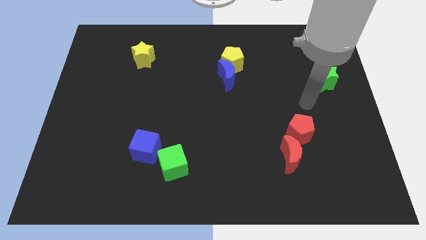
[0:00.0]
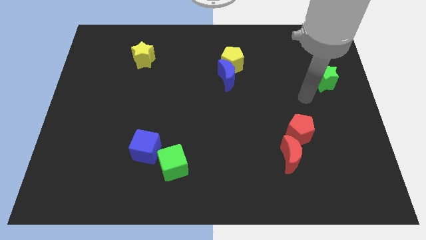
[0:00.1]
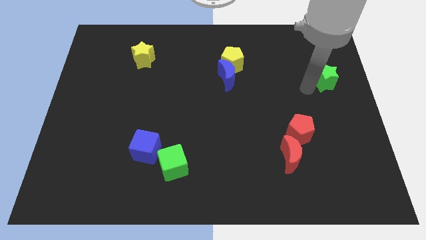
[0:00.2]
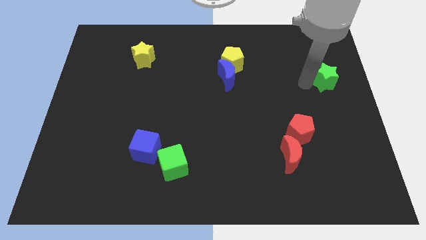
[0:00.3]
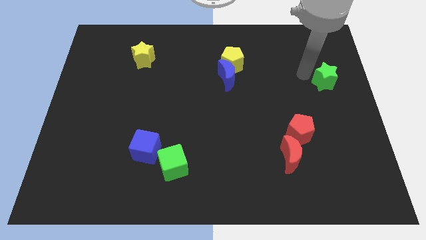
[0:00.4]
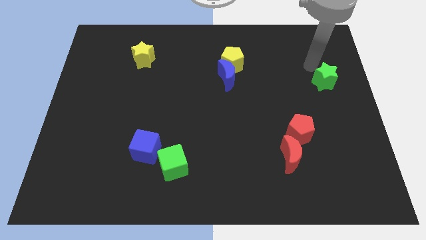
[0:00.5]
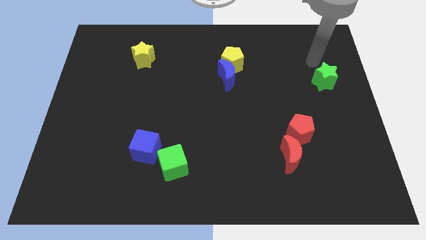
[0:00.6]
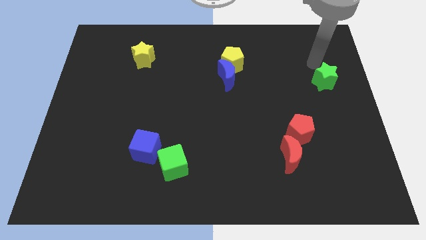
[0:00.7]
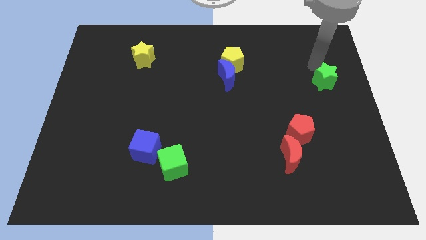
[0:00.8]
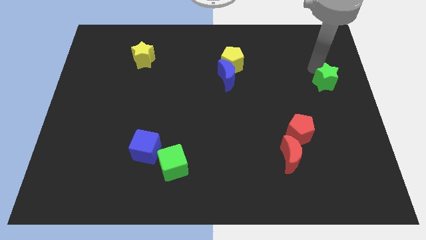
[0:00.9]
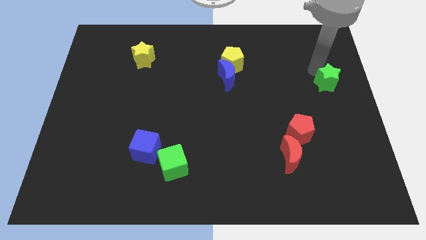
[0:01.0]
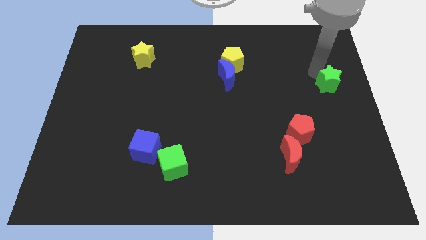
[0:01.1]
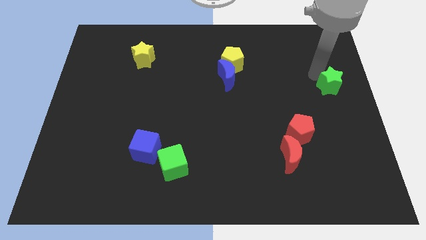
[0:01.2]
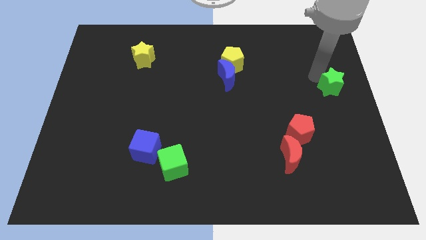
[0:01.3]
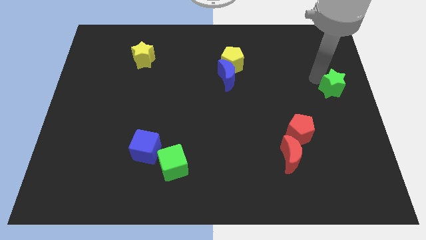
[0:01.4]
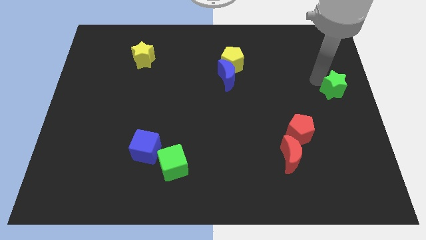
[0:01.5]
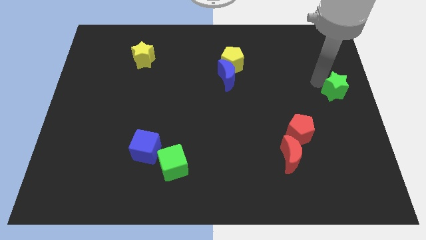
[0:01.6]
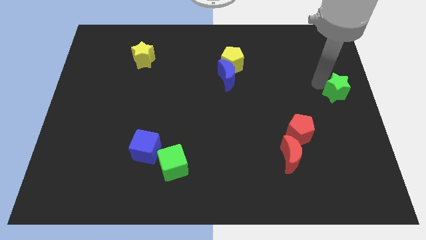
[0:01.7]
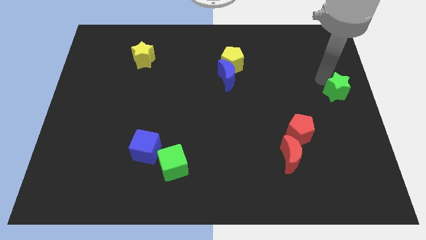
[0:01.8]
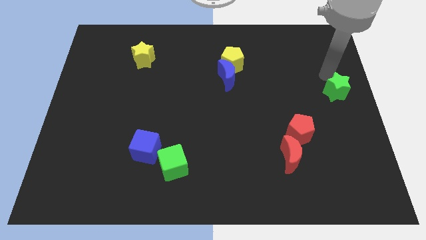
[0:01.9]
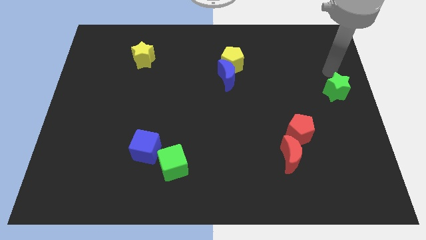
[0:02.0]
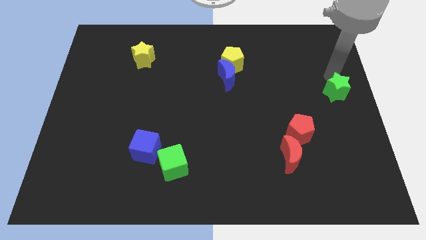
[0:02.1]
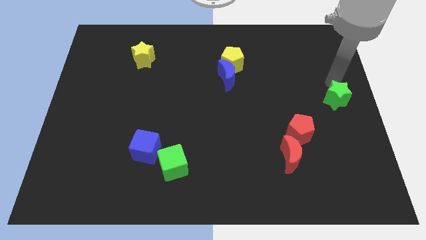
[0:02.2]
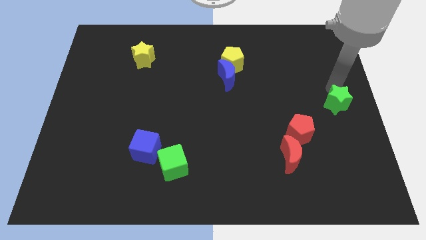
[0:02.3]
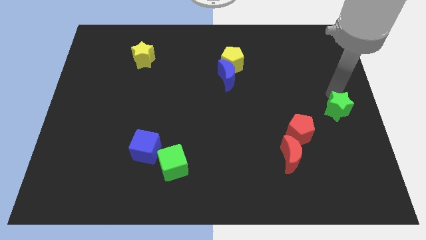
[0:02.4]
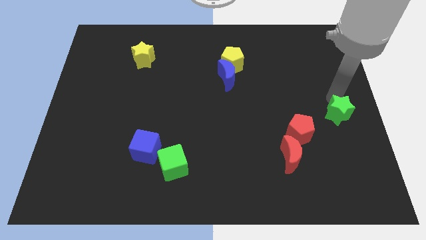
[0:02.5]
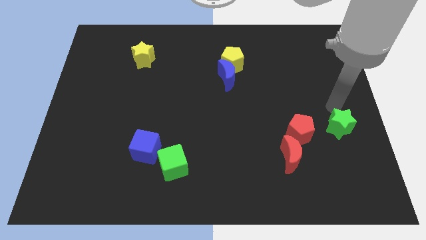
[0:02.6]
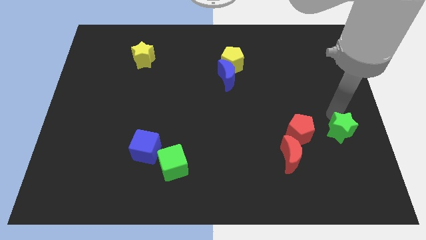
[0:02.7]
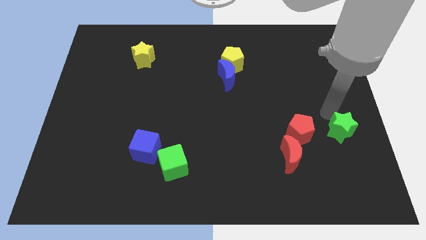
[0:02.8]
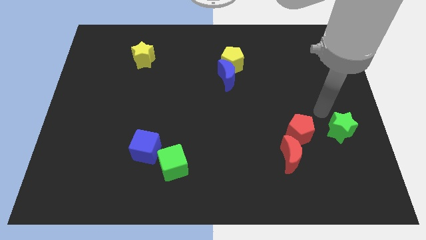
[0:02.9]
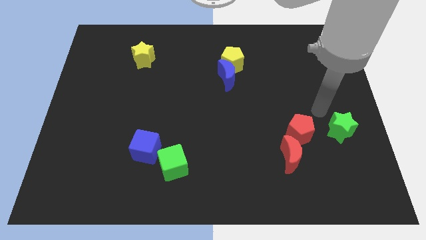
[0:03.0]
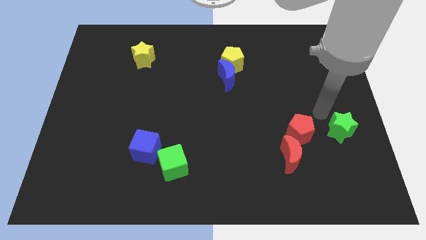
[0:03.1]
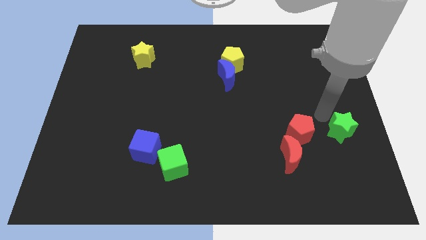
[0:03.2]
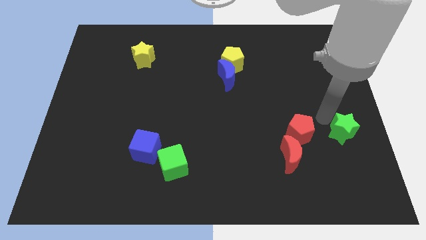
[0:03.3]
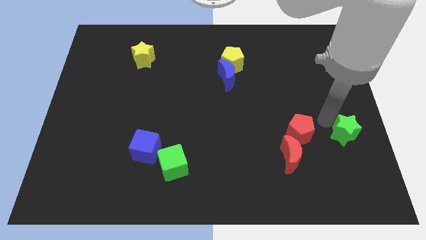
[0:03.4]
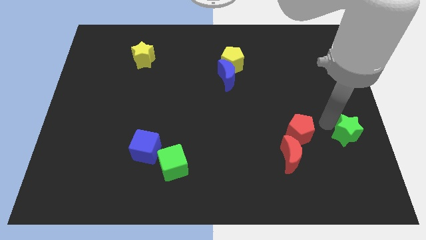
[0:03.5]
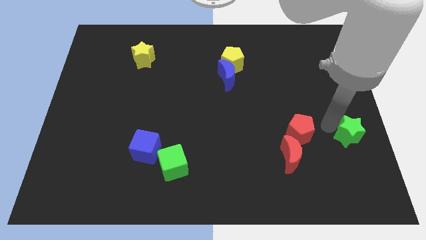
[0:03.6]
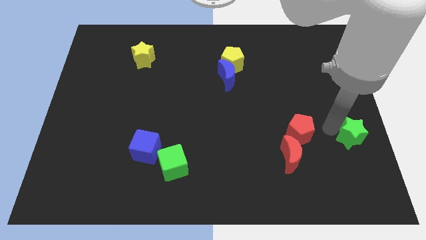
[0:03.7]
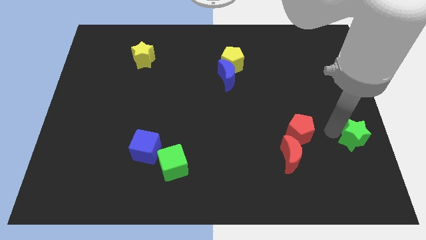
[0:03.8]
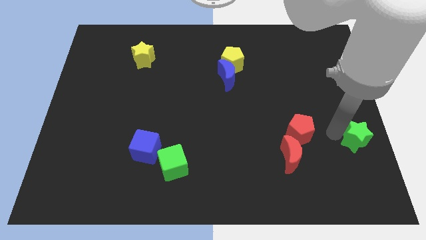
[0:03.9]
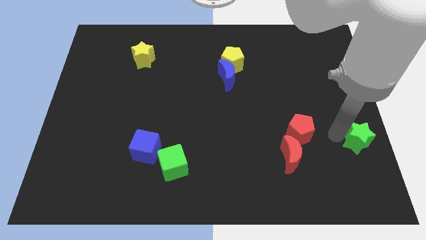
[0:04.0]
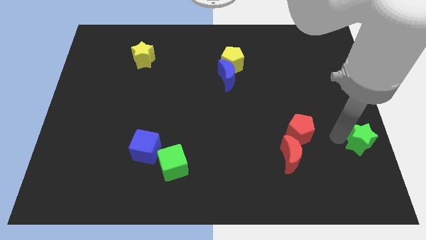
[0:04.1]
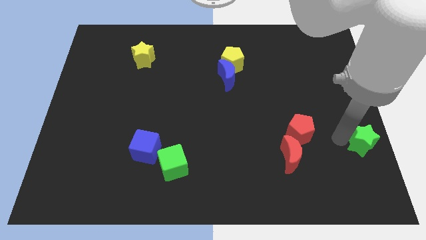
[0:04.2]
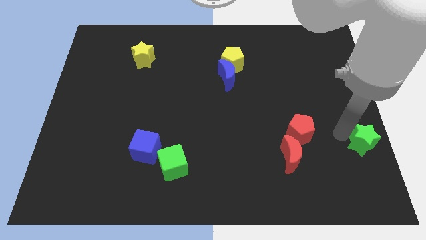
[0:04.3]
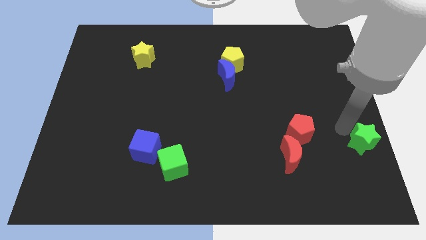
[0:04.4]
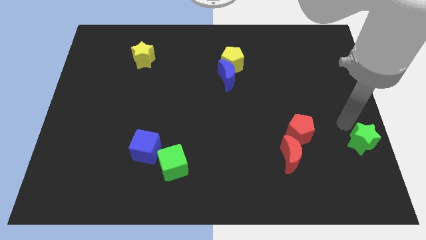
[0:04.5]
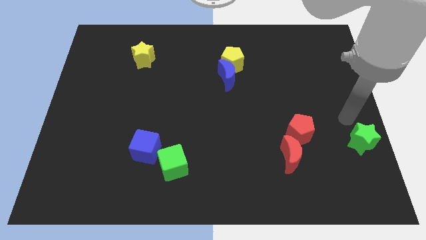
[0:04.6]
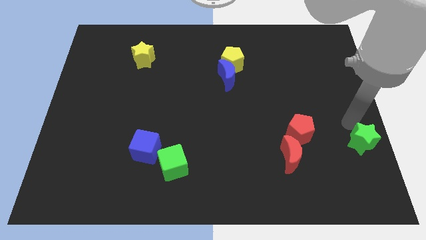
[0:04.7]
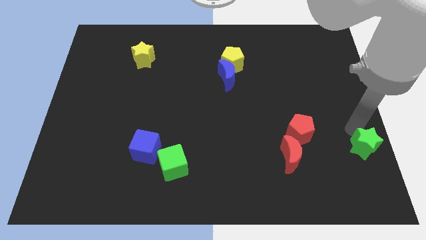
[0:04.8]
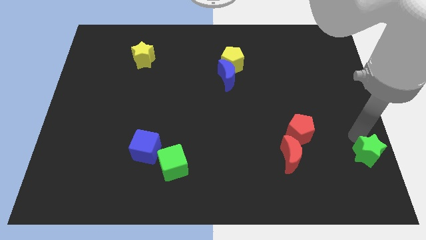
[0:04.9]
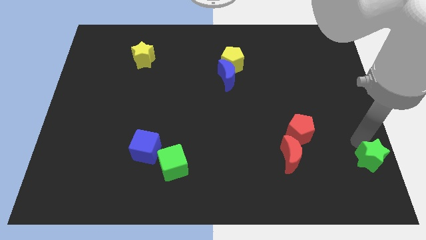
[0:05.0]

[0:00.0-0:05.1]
slide the green star to the lower right corner

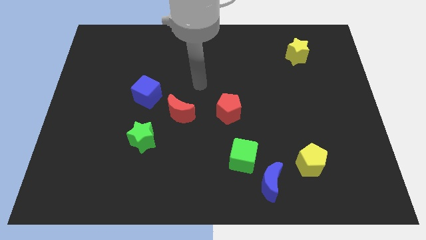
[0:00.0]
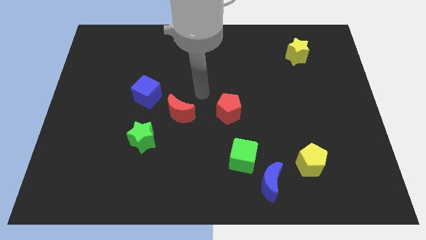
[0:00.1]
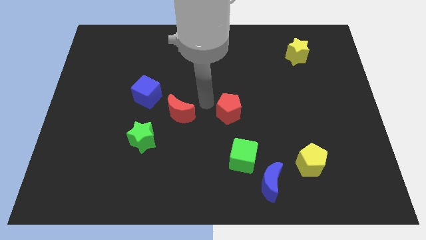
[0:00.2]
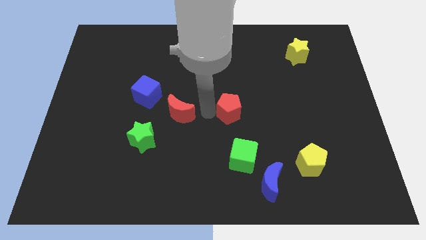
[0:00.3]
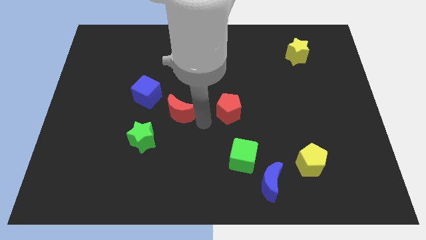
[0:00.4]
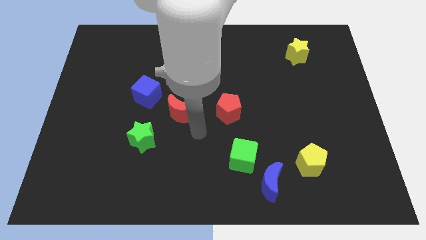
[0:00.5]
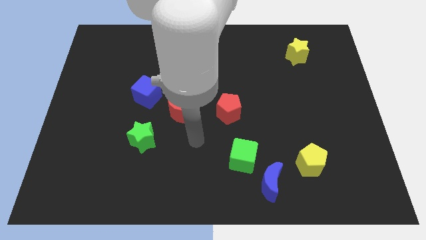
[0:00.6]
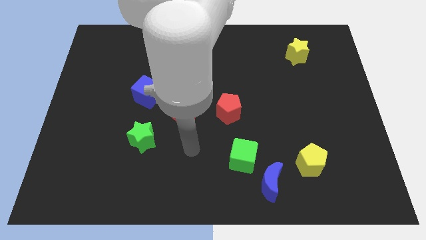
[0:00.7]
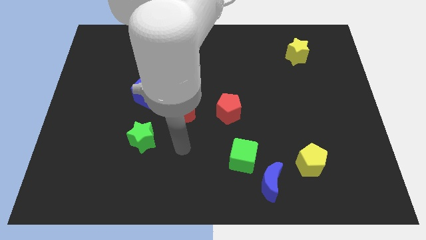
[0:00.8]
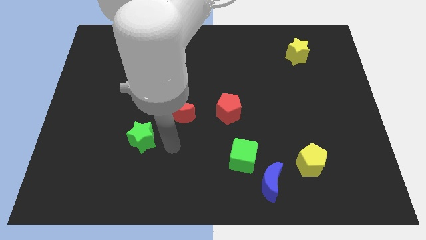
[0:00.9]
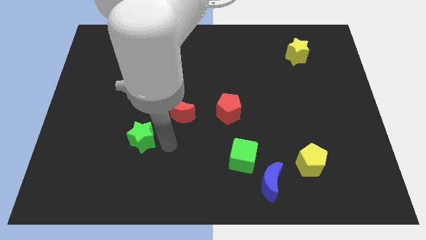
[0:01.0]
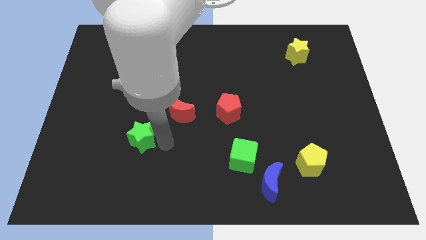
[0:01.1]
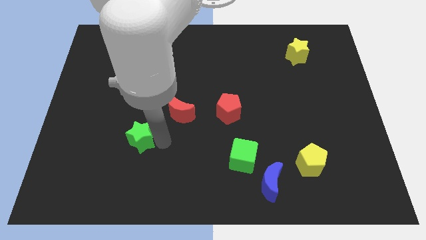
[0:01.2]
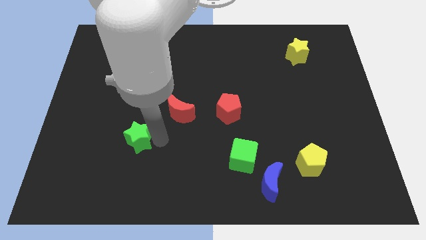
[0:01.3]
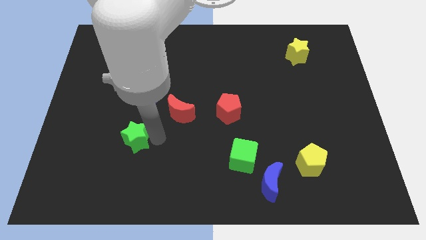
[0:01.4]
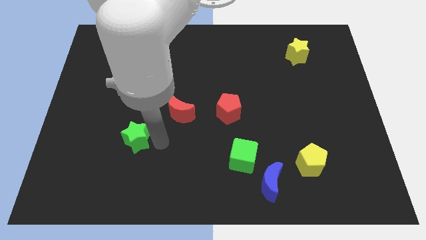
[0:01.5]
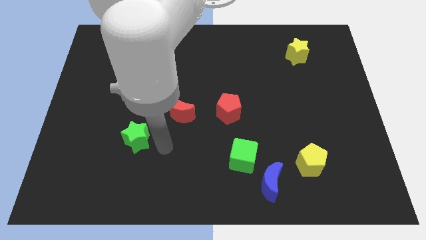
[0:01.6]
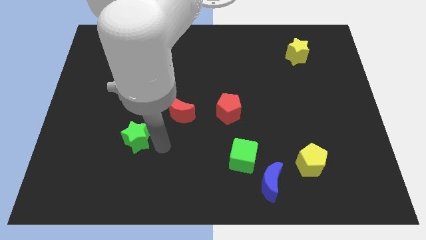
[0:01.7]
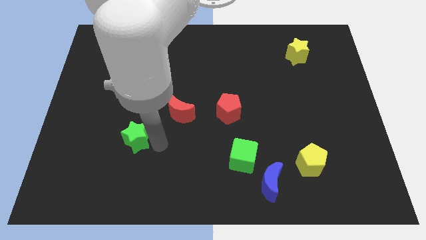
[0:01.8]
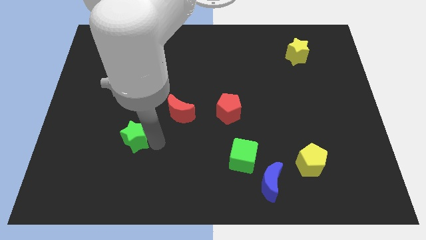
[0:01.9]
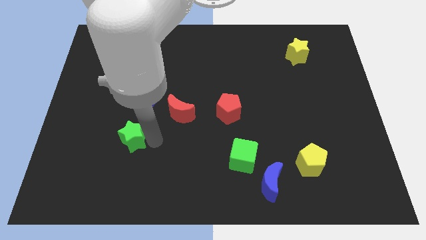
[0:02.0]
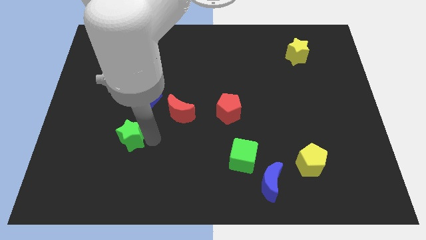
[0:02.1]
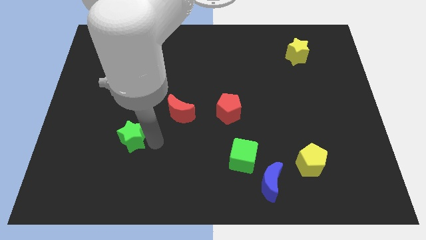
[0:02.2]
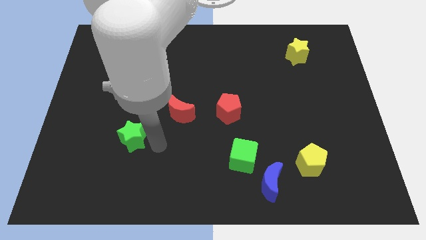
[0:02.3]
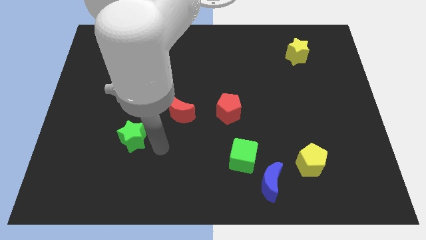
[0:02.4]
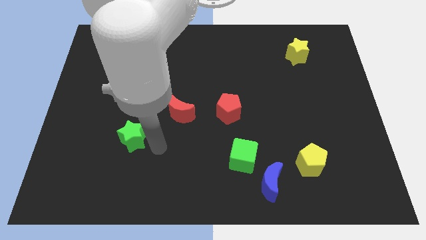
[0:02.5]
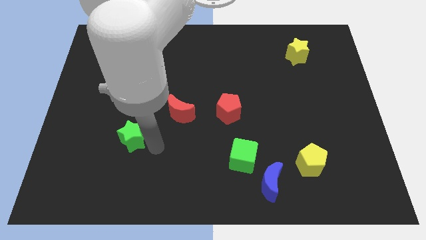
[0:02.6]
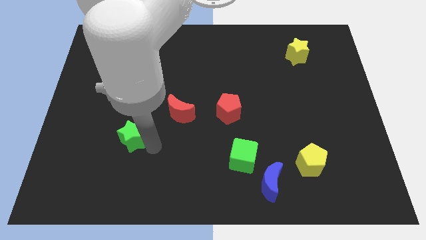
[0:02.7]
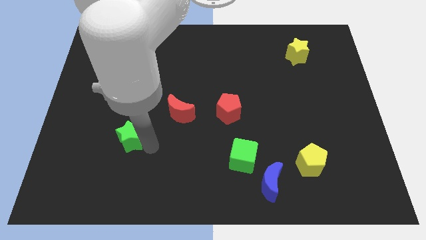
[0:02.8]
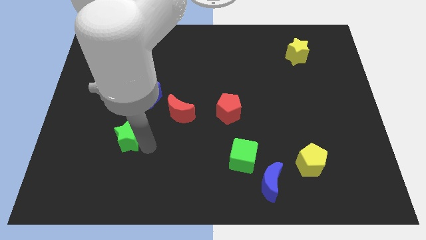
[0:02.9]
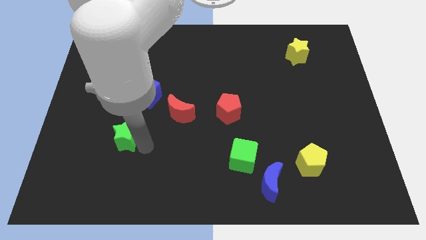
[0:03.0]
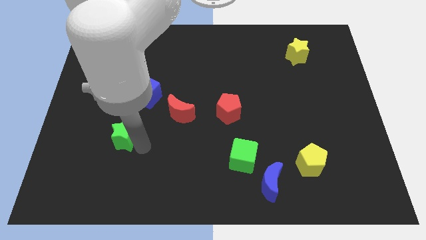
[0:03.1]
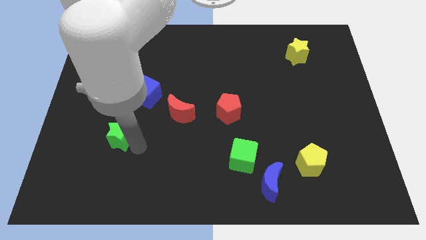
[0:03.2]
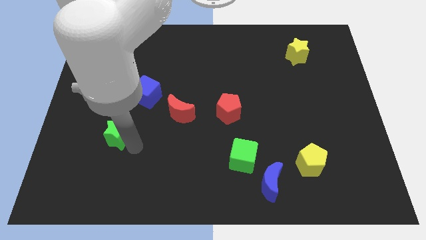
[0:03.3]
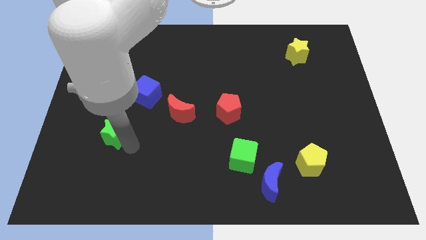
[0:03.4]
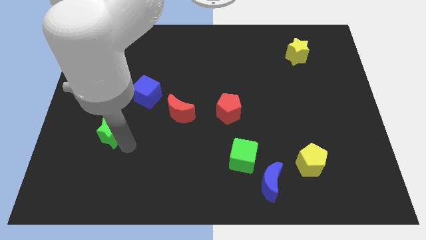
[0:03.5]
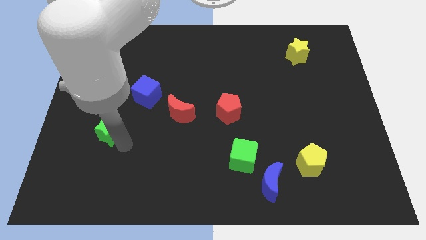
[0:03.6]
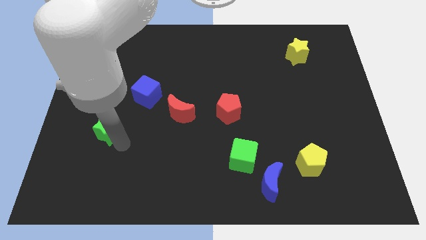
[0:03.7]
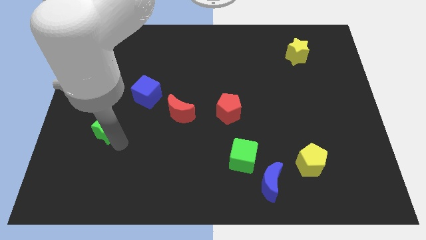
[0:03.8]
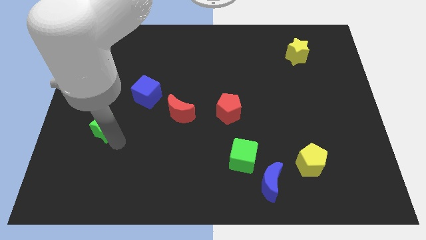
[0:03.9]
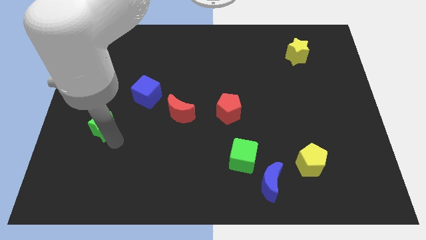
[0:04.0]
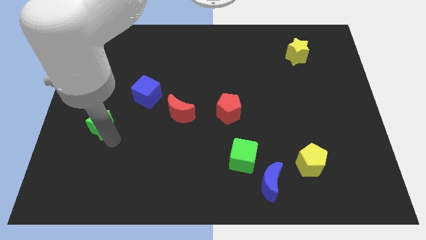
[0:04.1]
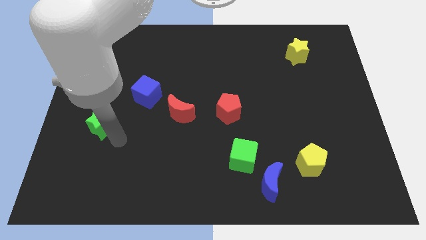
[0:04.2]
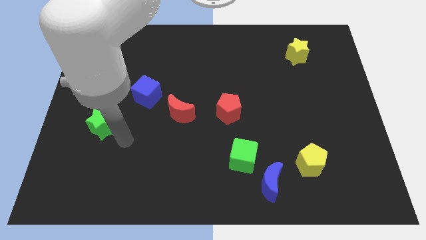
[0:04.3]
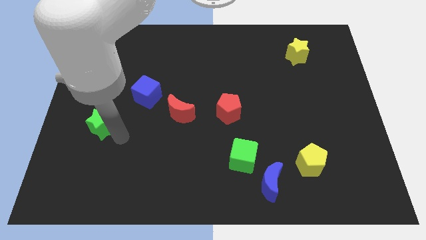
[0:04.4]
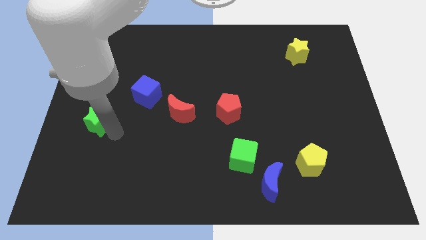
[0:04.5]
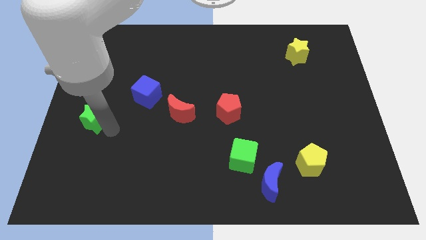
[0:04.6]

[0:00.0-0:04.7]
move the green star to the left side
